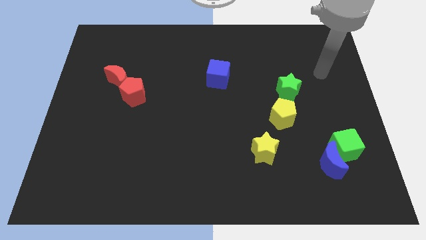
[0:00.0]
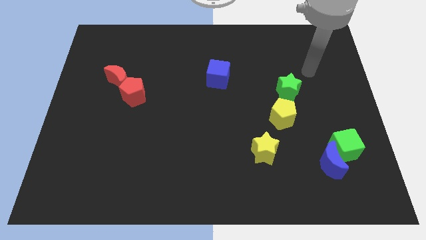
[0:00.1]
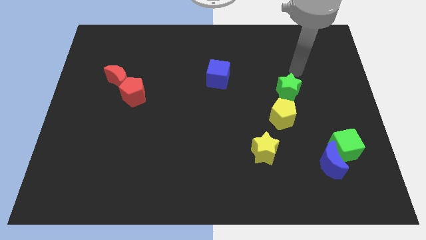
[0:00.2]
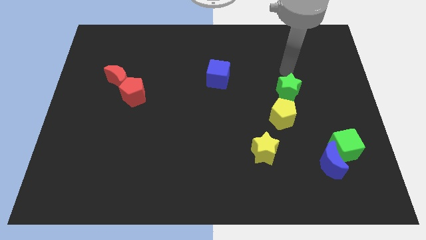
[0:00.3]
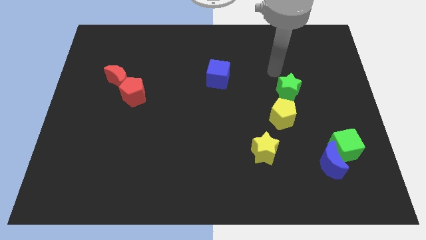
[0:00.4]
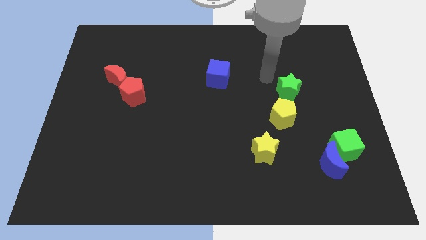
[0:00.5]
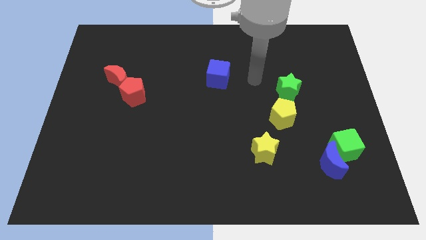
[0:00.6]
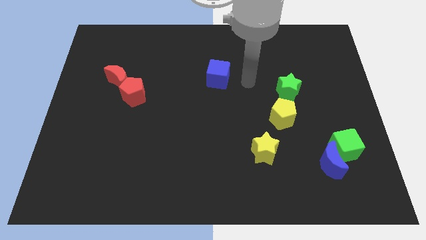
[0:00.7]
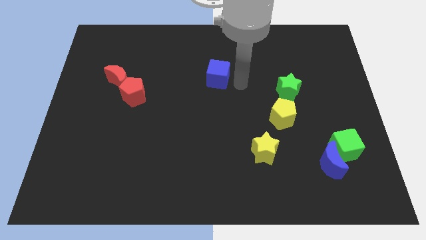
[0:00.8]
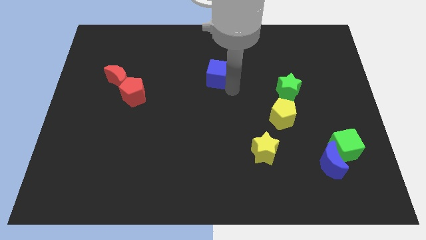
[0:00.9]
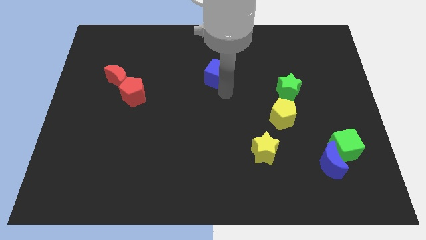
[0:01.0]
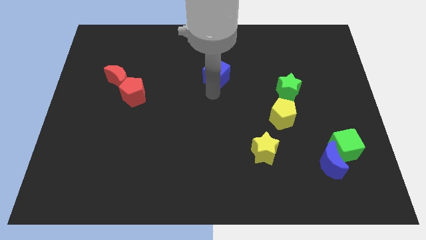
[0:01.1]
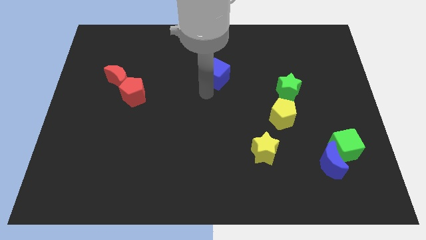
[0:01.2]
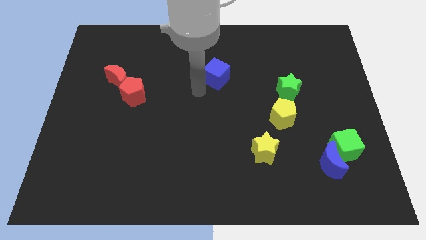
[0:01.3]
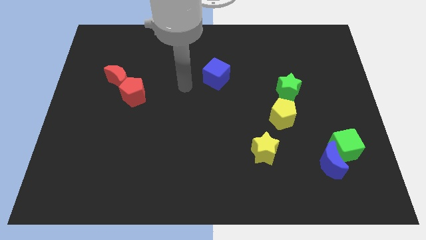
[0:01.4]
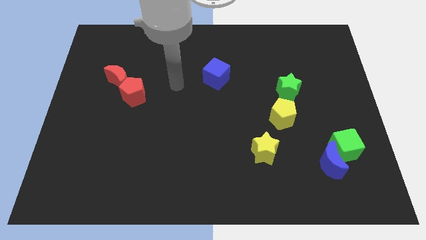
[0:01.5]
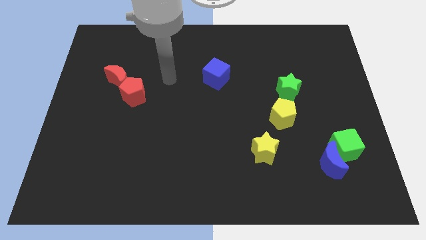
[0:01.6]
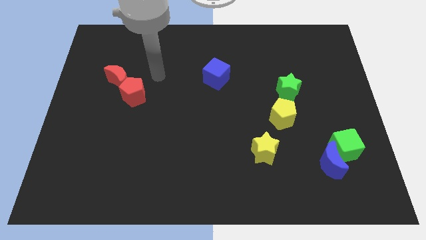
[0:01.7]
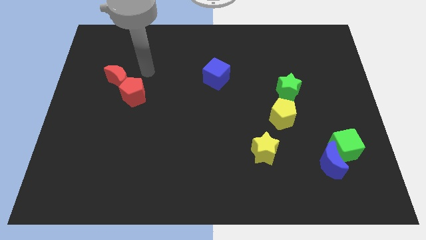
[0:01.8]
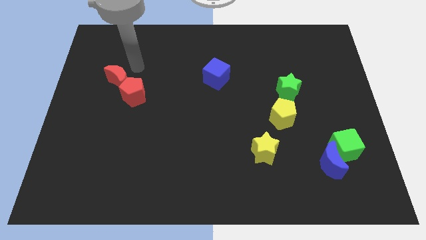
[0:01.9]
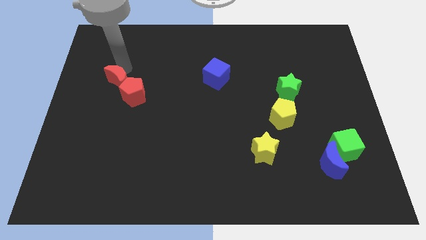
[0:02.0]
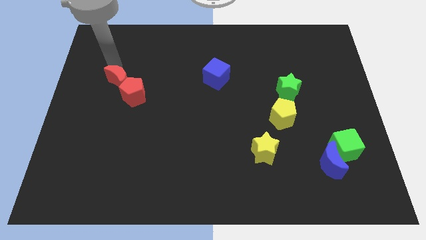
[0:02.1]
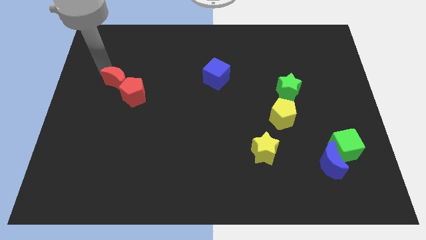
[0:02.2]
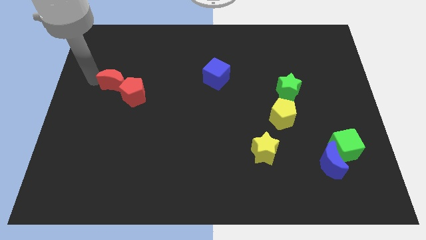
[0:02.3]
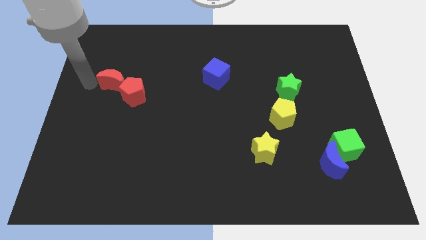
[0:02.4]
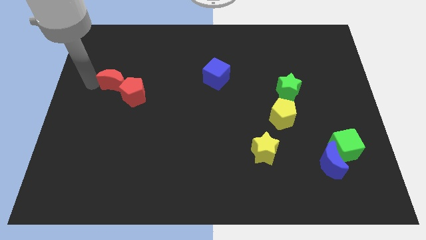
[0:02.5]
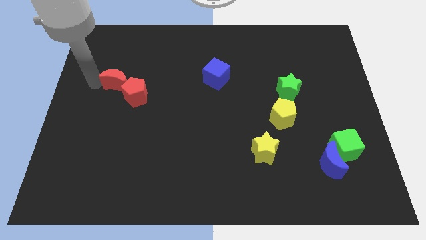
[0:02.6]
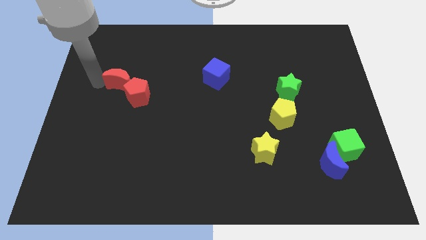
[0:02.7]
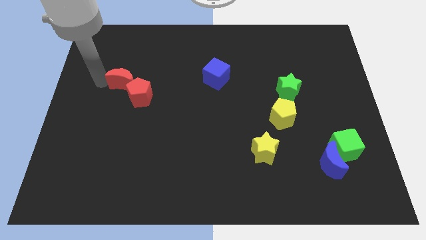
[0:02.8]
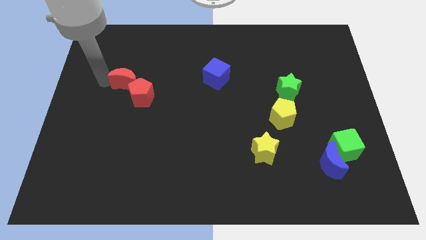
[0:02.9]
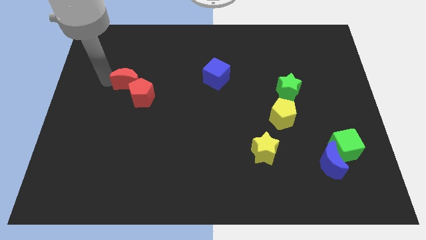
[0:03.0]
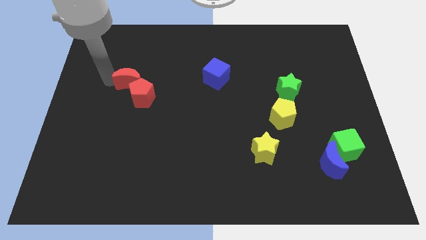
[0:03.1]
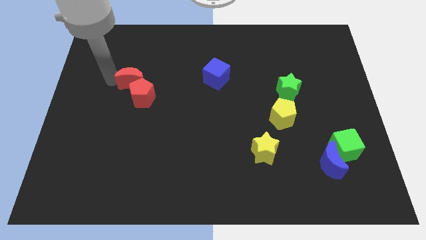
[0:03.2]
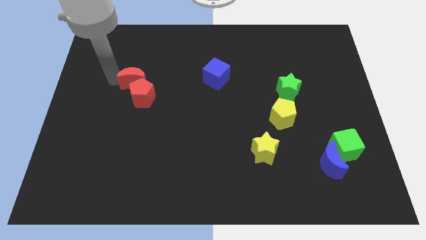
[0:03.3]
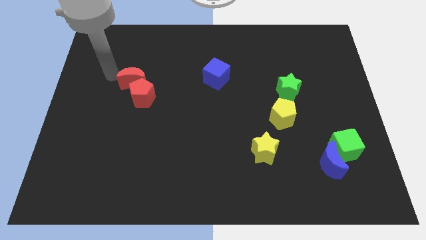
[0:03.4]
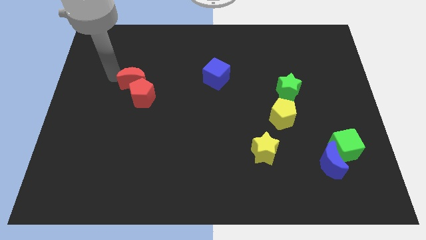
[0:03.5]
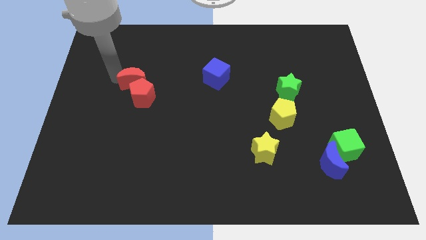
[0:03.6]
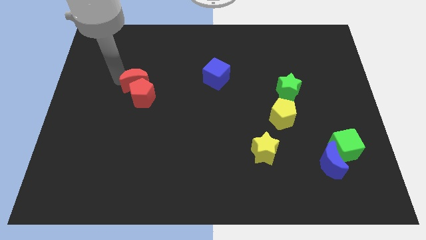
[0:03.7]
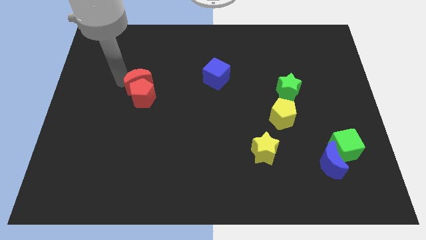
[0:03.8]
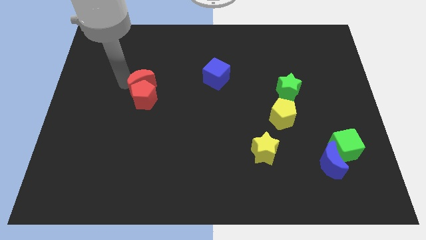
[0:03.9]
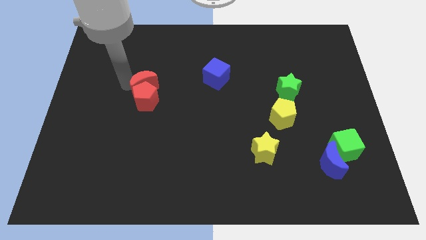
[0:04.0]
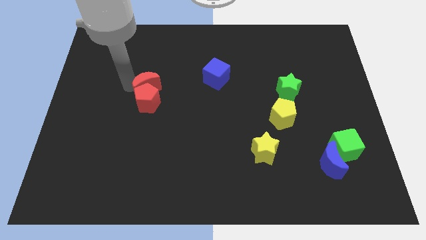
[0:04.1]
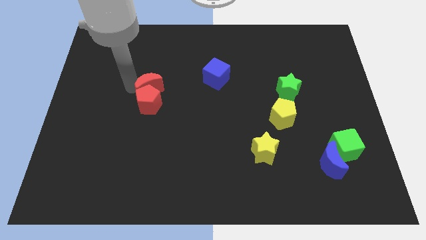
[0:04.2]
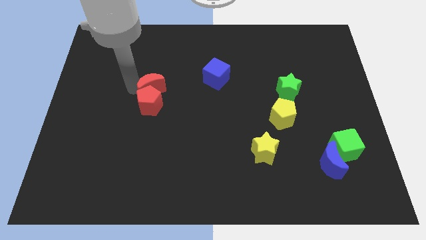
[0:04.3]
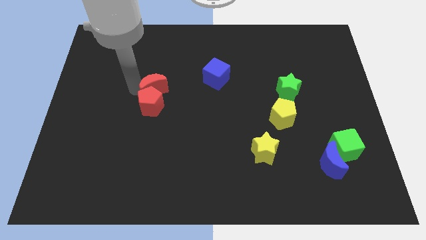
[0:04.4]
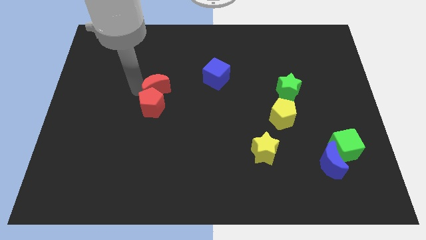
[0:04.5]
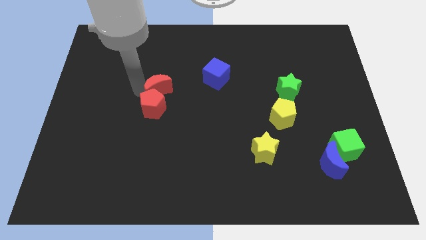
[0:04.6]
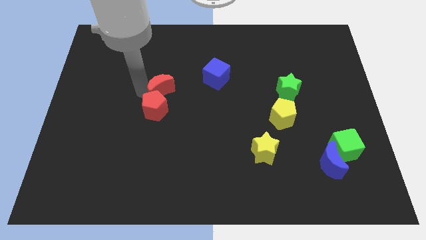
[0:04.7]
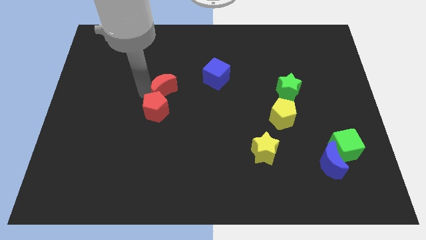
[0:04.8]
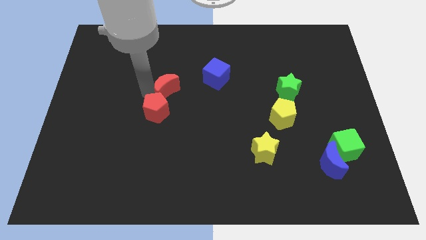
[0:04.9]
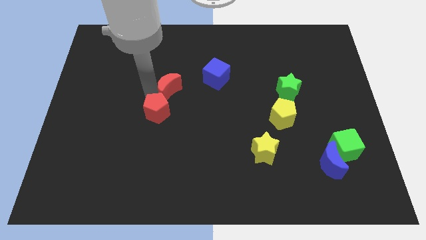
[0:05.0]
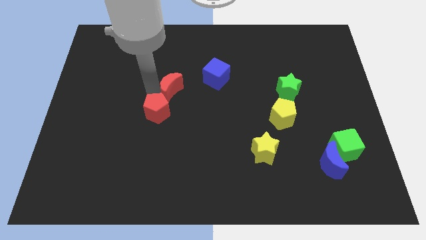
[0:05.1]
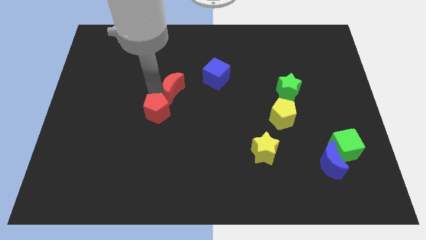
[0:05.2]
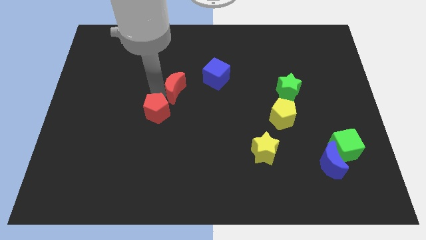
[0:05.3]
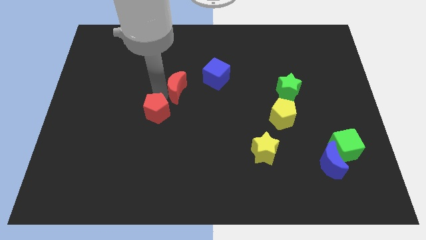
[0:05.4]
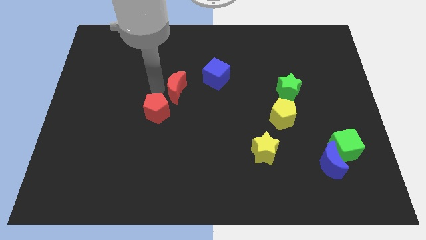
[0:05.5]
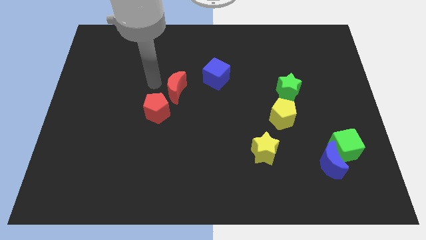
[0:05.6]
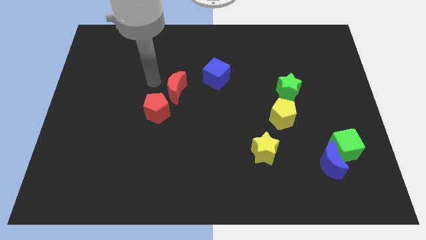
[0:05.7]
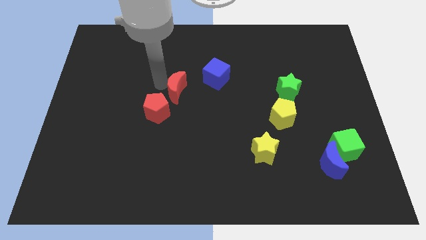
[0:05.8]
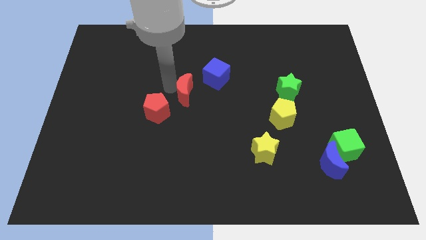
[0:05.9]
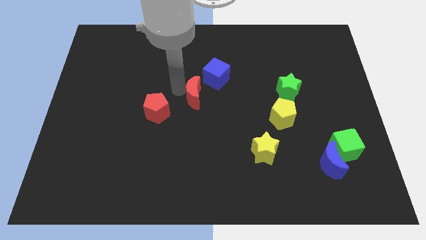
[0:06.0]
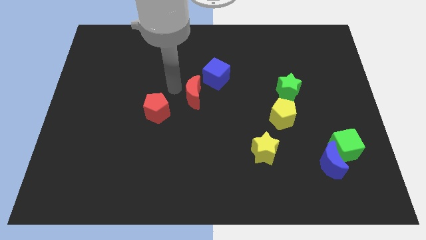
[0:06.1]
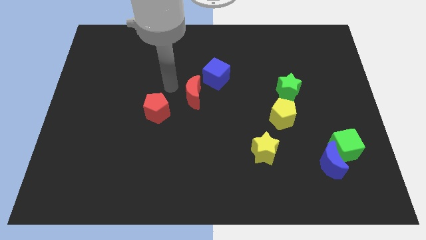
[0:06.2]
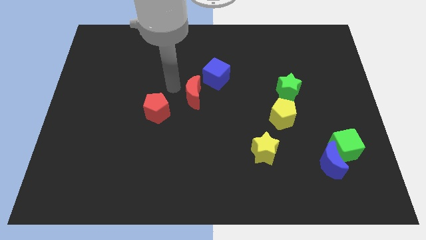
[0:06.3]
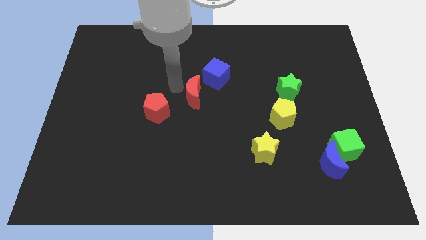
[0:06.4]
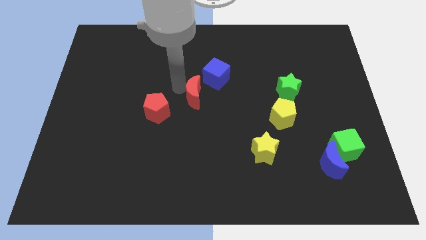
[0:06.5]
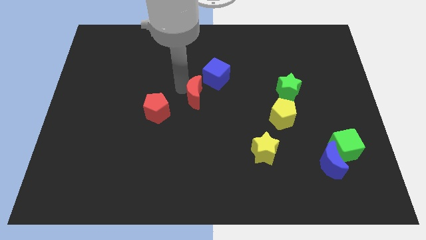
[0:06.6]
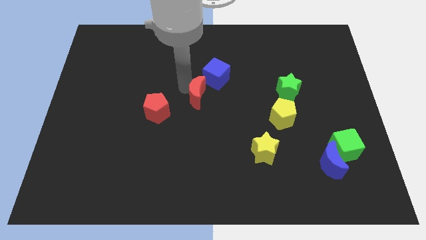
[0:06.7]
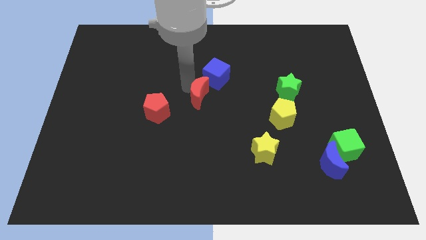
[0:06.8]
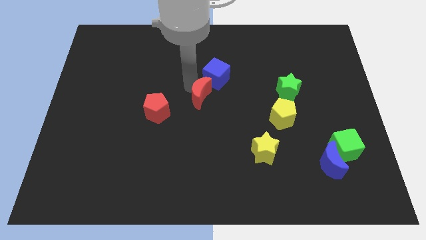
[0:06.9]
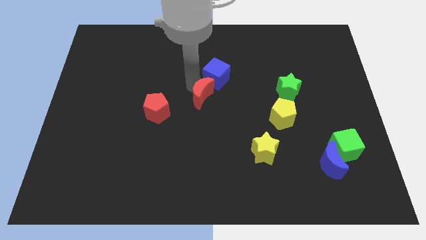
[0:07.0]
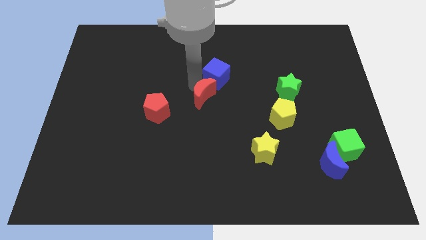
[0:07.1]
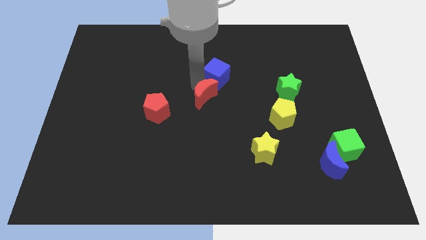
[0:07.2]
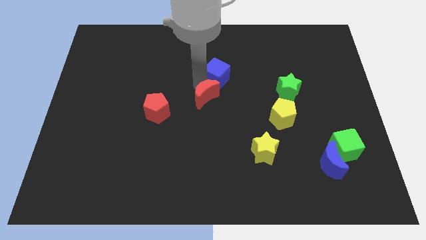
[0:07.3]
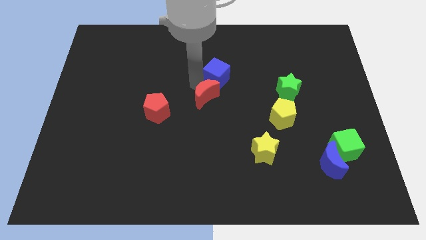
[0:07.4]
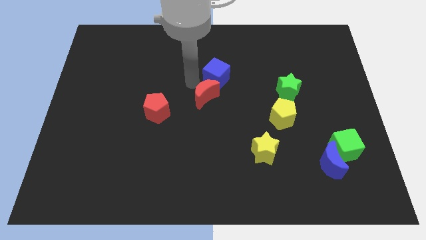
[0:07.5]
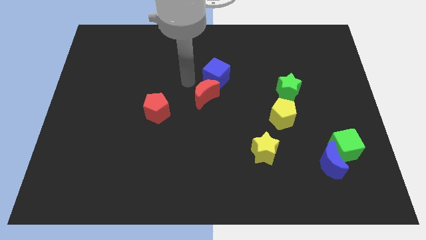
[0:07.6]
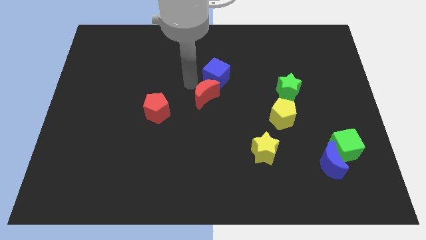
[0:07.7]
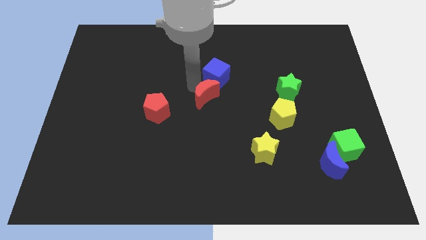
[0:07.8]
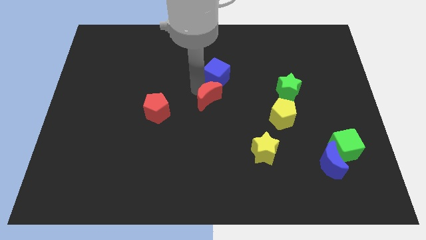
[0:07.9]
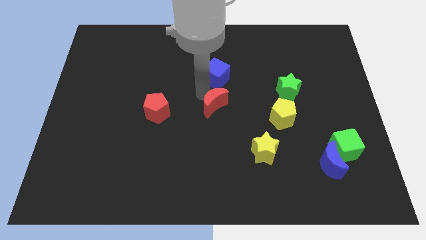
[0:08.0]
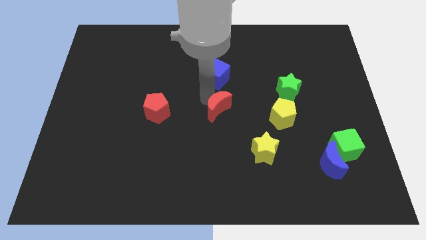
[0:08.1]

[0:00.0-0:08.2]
move the red moon to the left side of the yellow pentagon
